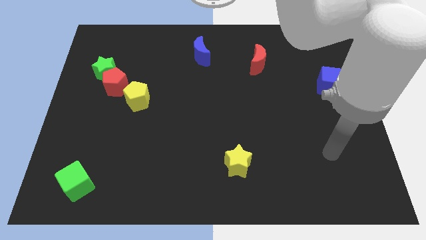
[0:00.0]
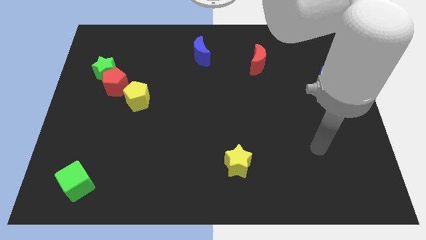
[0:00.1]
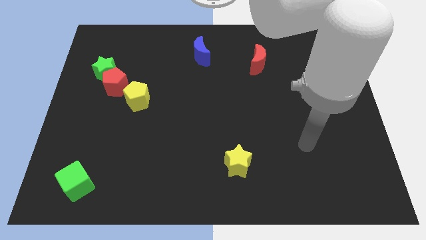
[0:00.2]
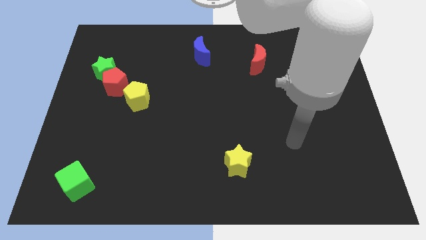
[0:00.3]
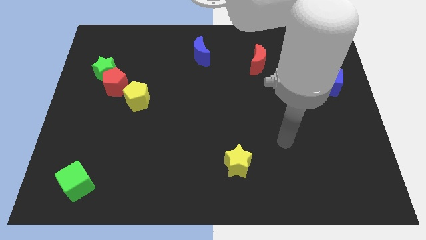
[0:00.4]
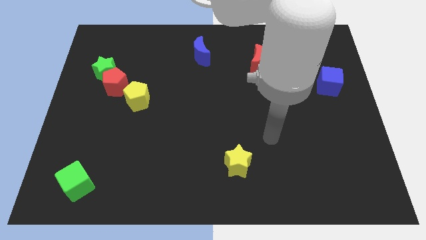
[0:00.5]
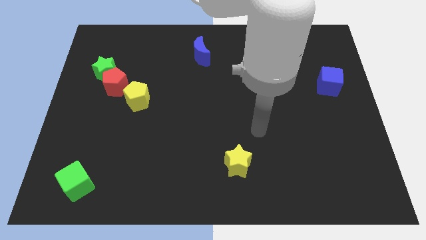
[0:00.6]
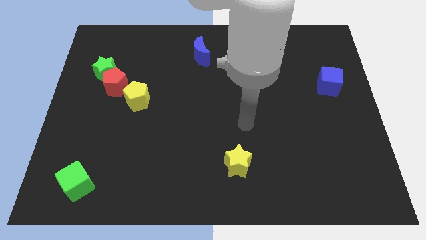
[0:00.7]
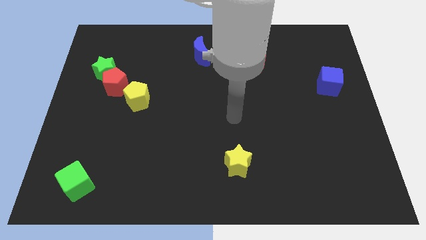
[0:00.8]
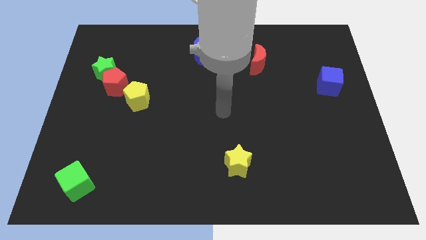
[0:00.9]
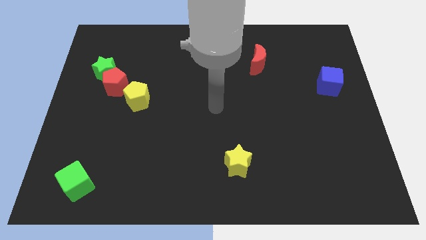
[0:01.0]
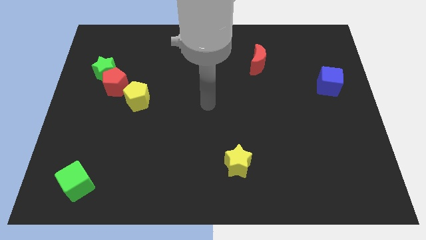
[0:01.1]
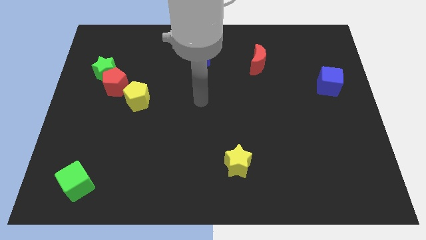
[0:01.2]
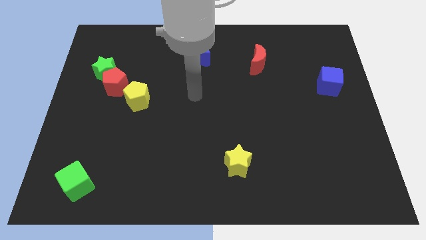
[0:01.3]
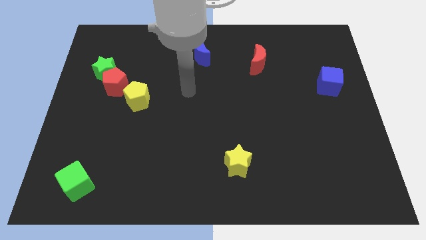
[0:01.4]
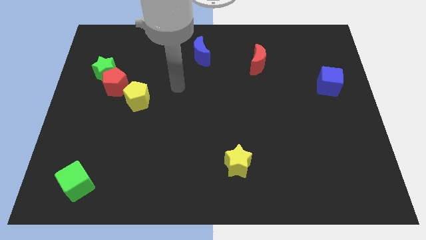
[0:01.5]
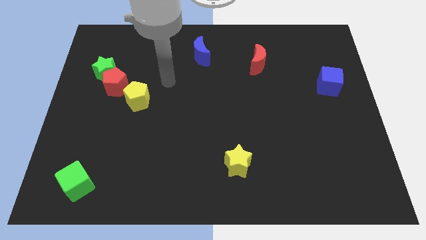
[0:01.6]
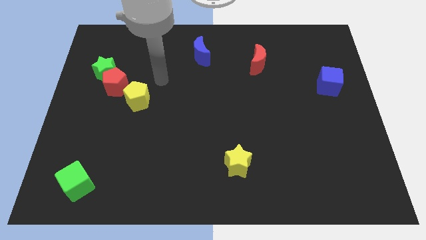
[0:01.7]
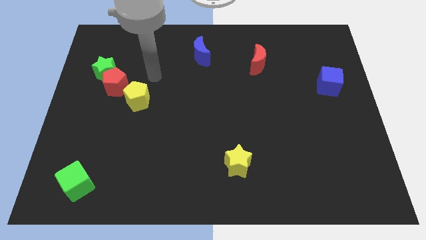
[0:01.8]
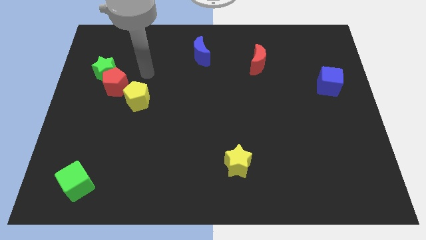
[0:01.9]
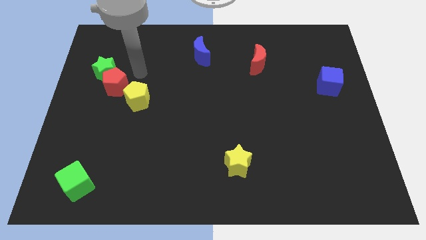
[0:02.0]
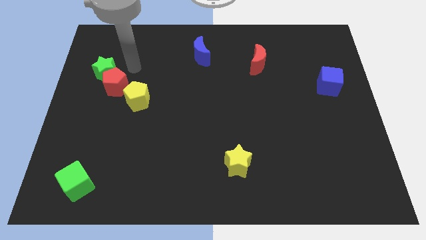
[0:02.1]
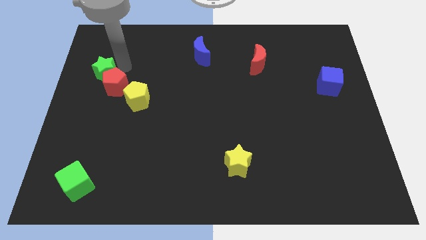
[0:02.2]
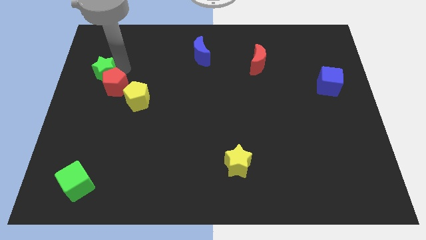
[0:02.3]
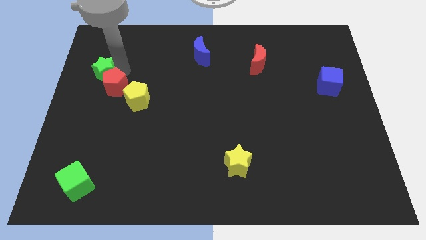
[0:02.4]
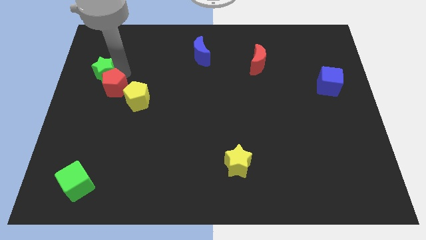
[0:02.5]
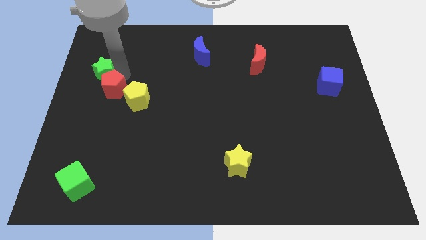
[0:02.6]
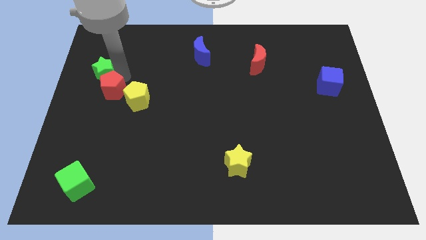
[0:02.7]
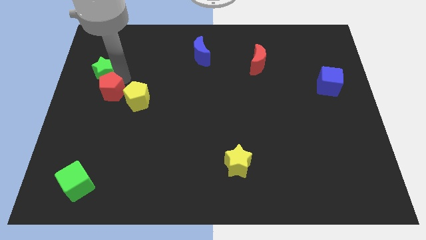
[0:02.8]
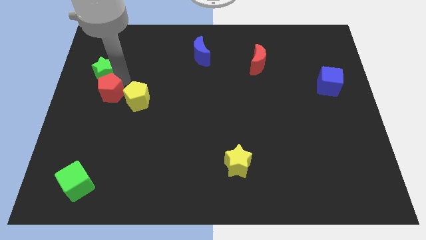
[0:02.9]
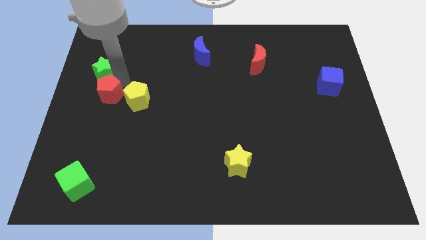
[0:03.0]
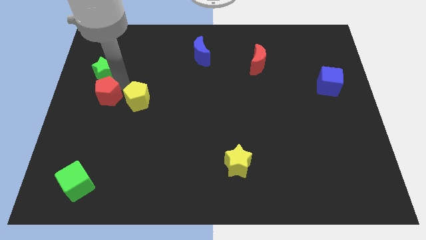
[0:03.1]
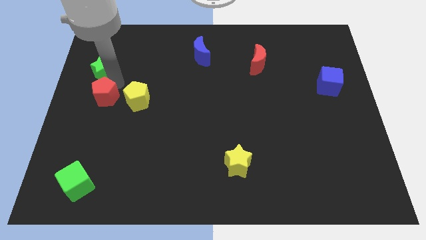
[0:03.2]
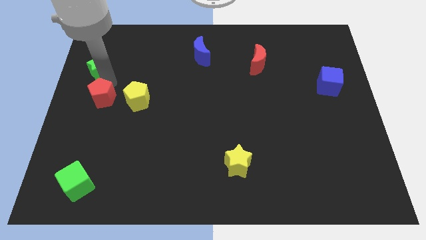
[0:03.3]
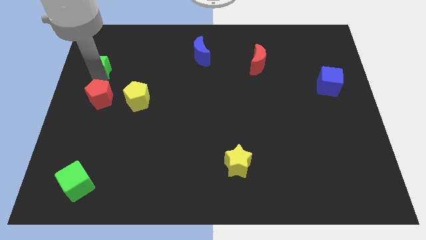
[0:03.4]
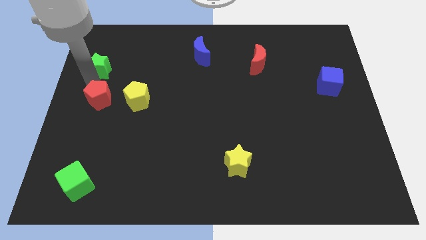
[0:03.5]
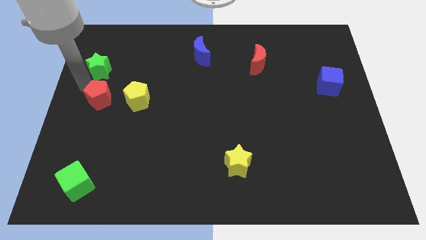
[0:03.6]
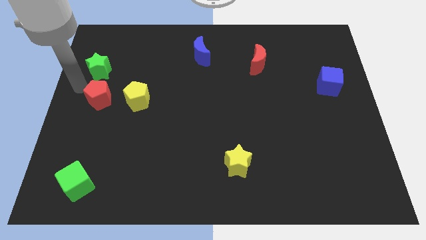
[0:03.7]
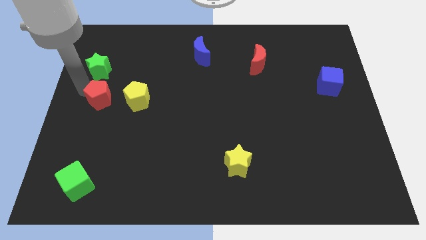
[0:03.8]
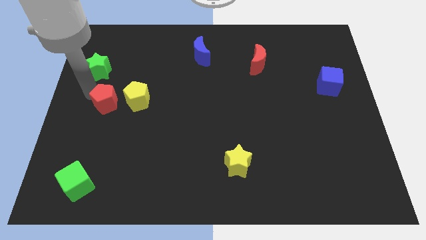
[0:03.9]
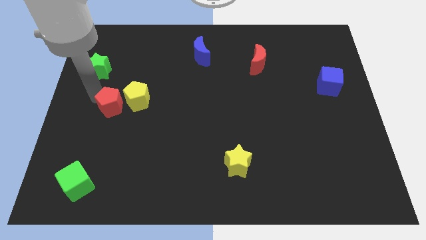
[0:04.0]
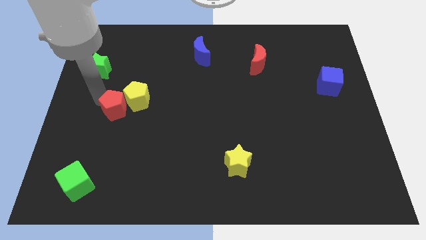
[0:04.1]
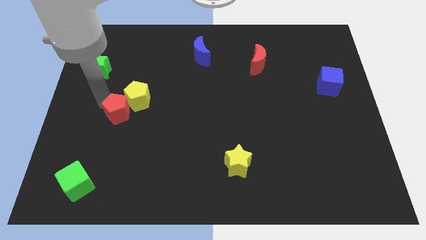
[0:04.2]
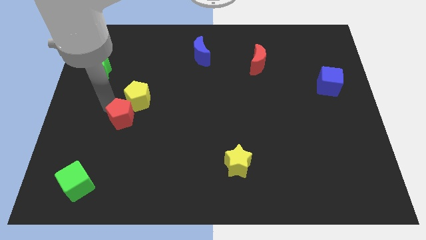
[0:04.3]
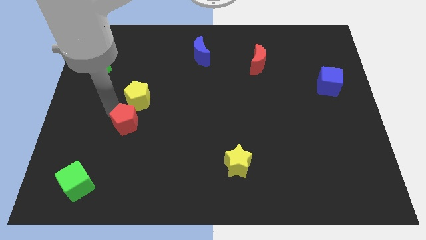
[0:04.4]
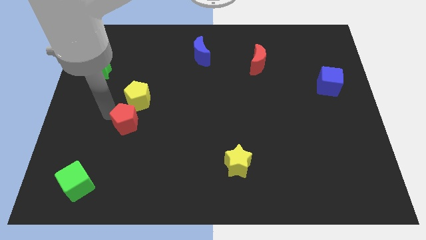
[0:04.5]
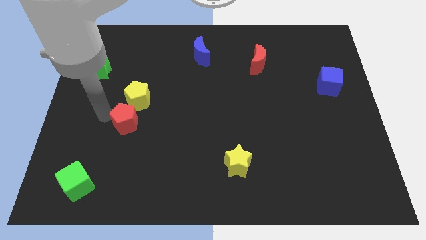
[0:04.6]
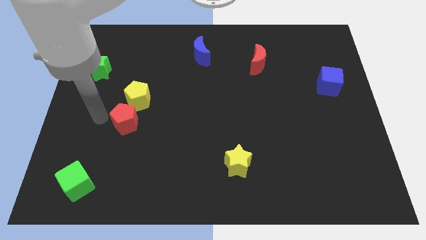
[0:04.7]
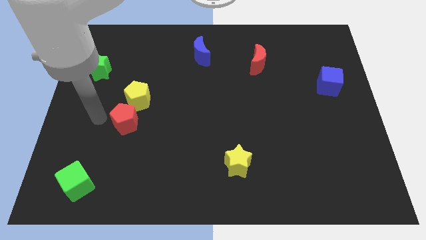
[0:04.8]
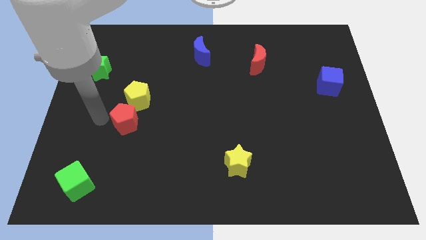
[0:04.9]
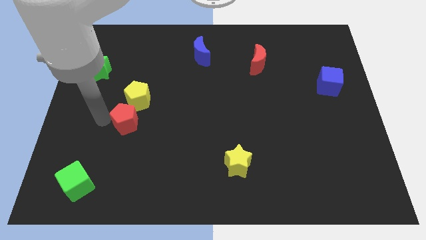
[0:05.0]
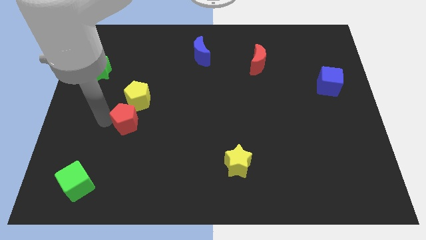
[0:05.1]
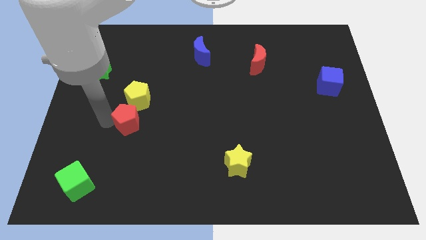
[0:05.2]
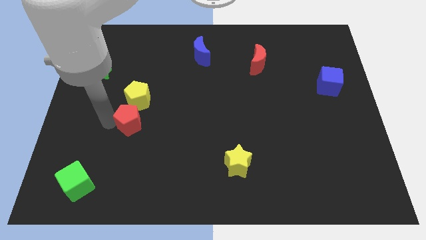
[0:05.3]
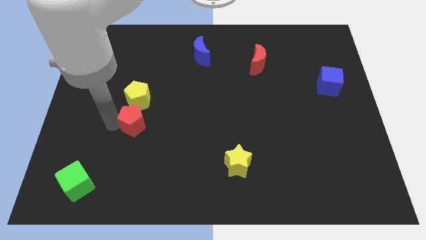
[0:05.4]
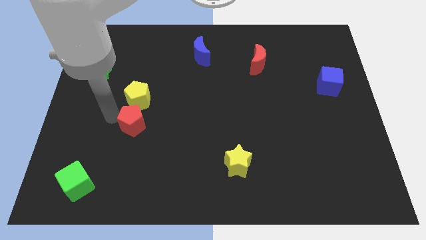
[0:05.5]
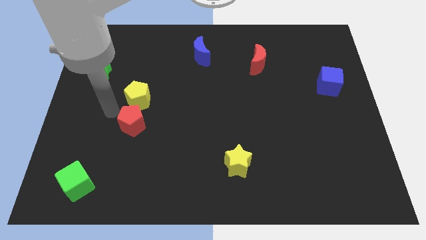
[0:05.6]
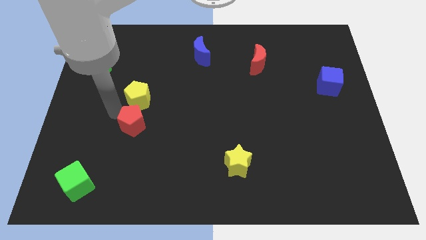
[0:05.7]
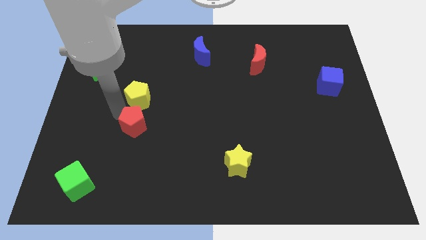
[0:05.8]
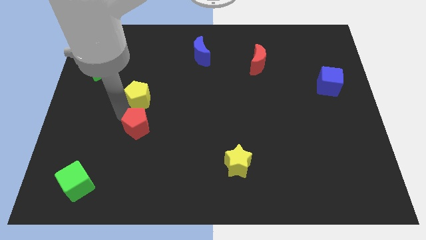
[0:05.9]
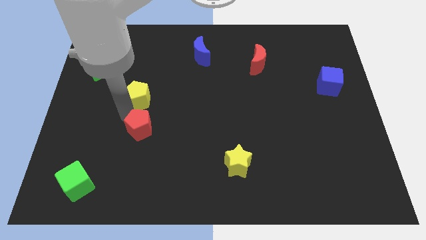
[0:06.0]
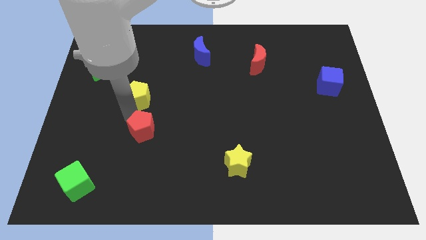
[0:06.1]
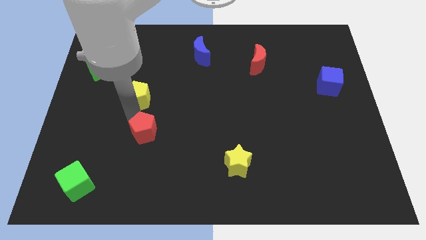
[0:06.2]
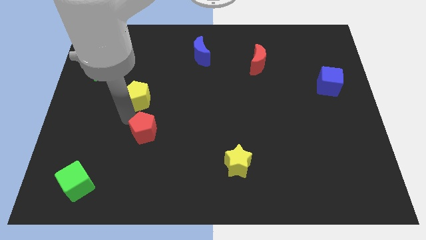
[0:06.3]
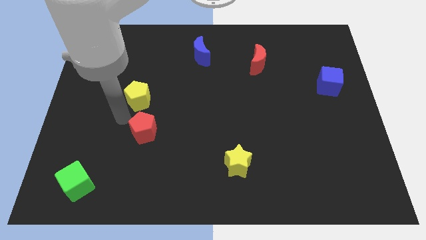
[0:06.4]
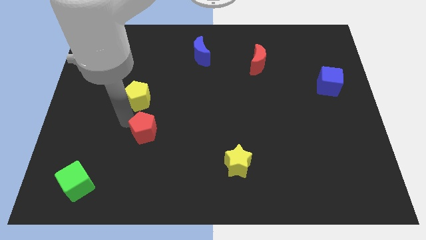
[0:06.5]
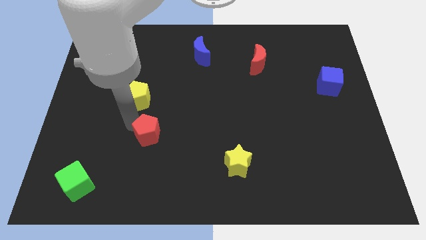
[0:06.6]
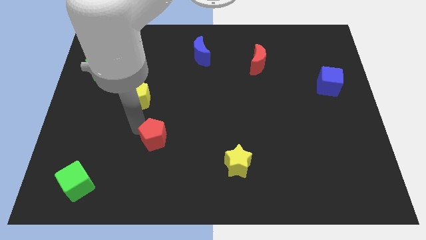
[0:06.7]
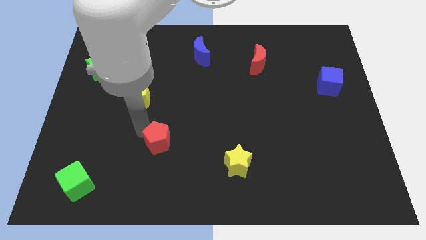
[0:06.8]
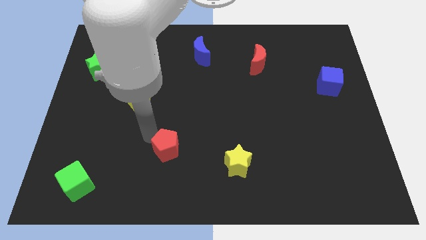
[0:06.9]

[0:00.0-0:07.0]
slide the red pentagon diagonally downwards and right

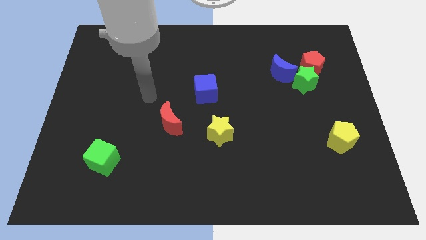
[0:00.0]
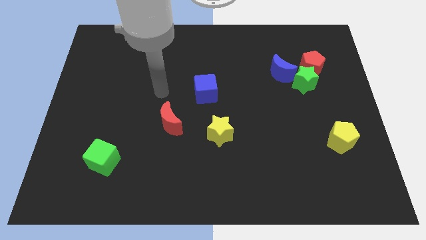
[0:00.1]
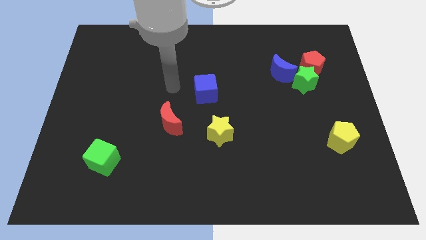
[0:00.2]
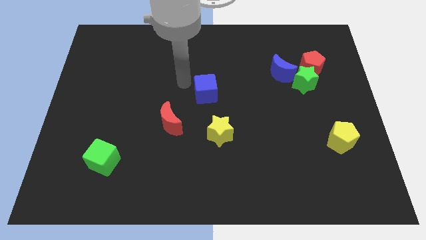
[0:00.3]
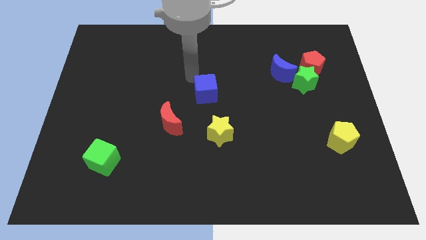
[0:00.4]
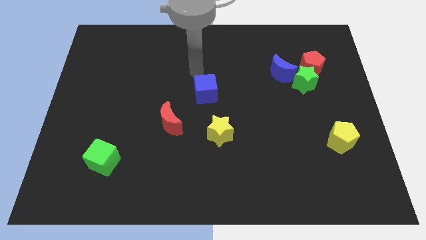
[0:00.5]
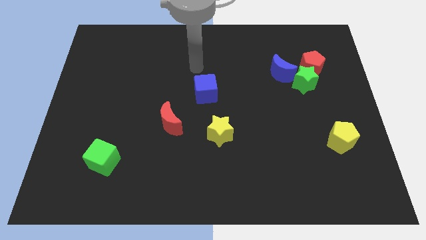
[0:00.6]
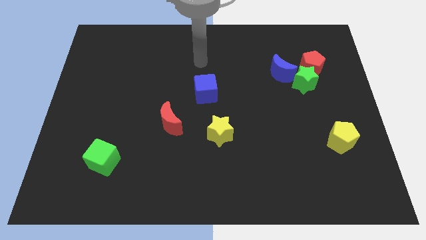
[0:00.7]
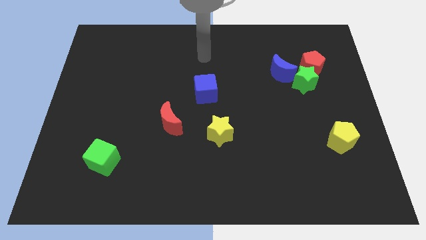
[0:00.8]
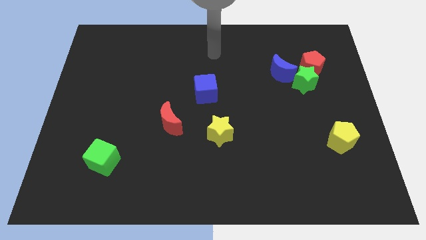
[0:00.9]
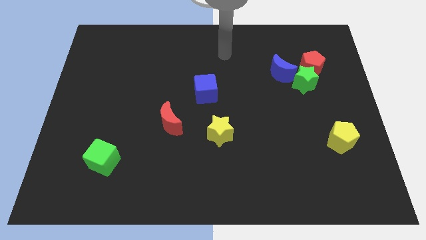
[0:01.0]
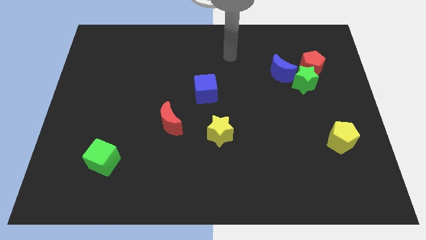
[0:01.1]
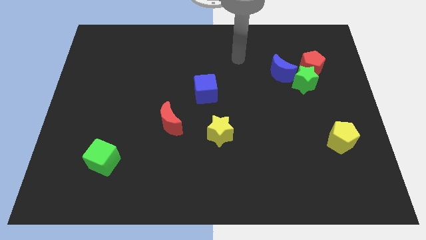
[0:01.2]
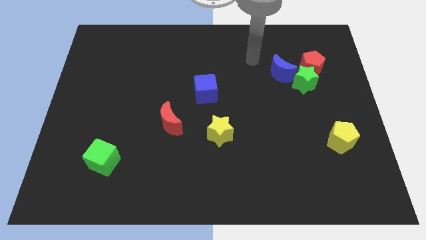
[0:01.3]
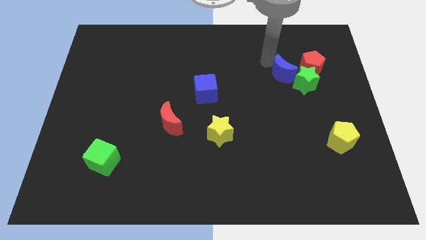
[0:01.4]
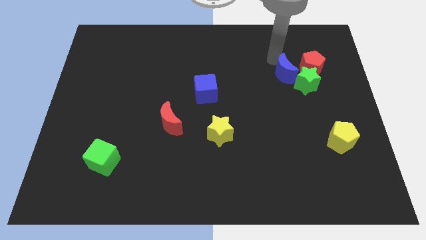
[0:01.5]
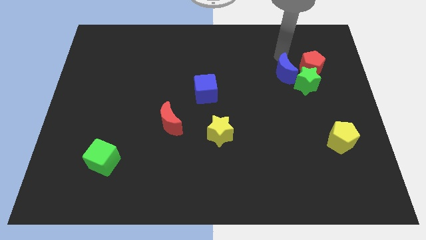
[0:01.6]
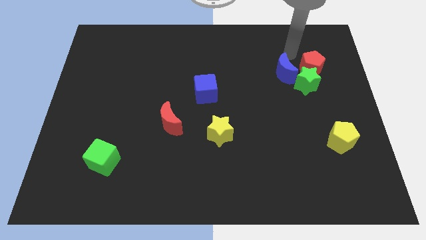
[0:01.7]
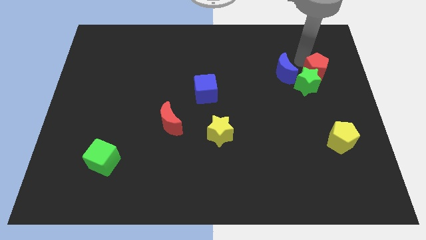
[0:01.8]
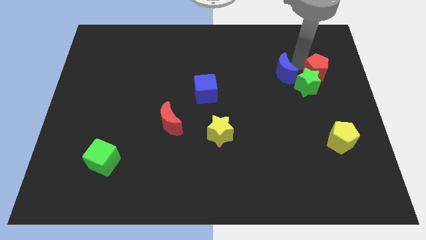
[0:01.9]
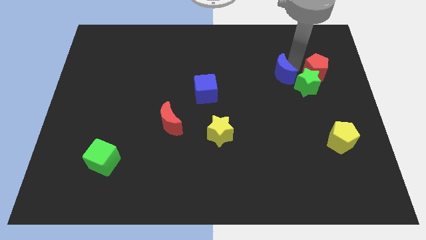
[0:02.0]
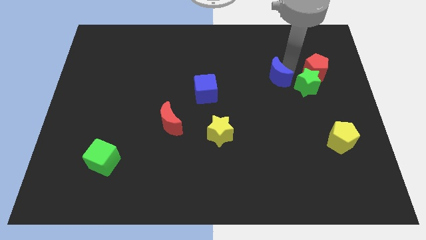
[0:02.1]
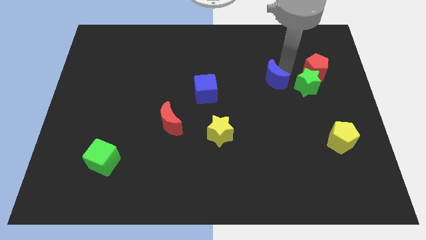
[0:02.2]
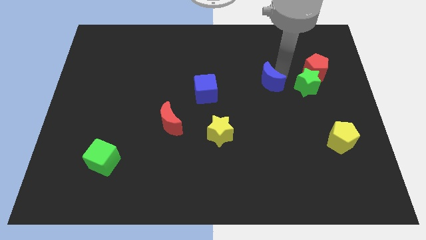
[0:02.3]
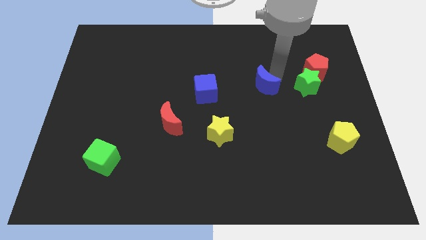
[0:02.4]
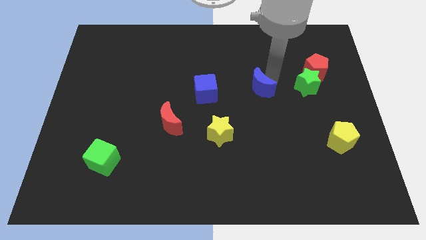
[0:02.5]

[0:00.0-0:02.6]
slightly push the blue moon down and to the left diagonally
